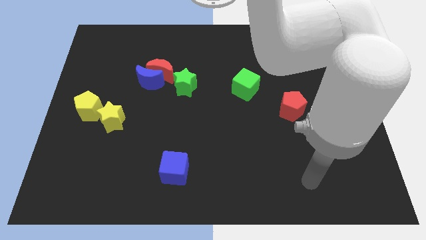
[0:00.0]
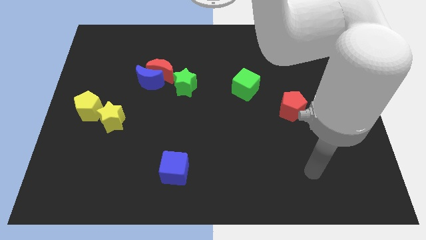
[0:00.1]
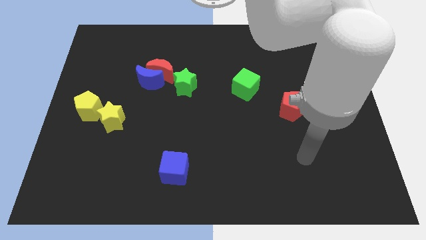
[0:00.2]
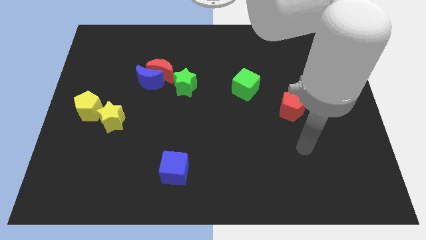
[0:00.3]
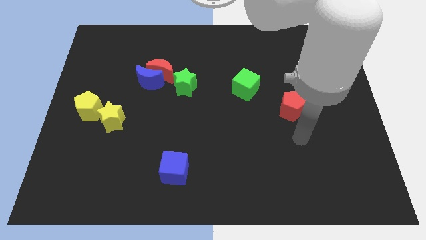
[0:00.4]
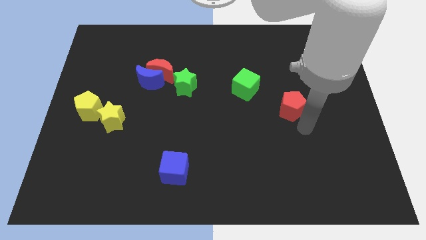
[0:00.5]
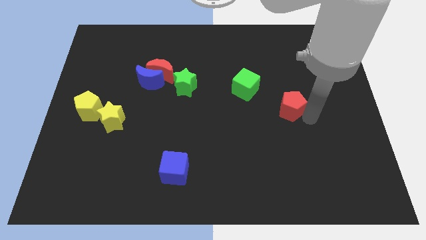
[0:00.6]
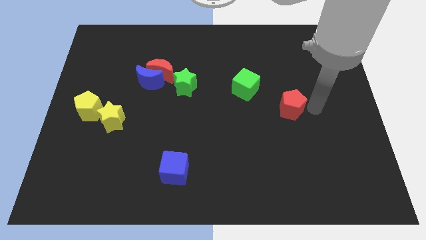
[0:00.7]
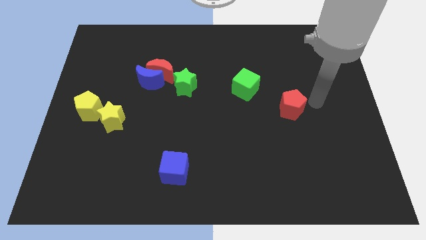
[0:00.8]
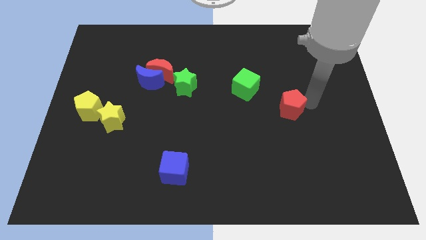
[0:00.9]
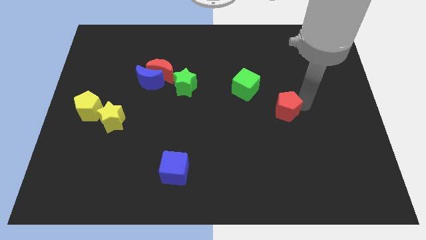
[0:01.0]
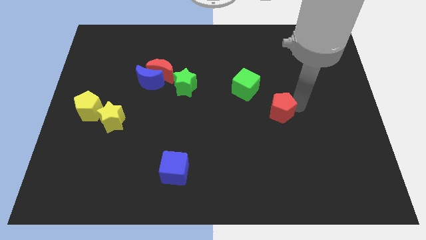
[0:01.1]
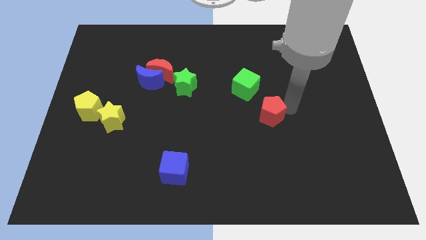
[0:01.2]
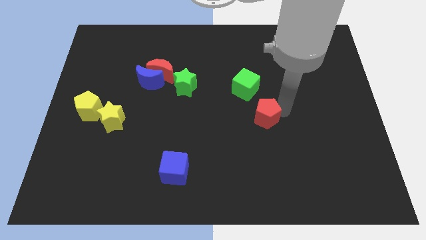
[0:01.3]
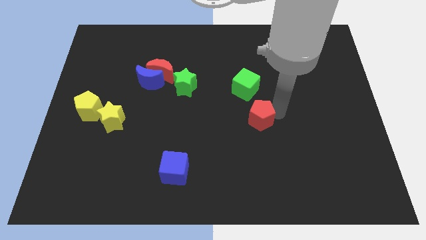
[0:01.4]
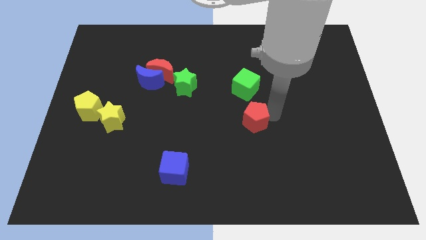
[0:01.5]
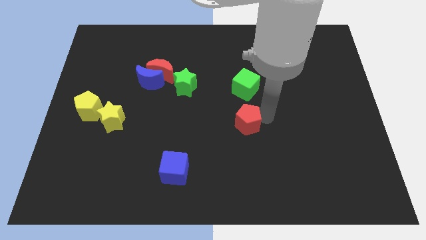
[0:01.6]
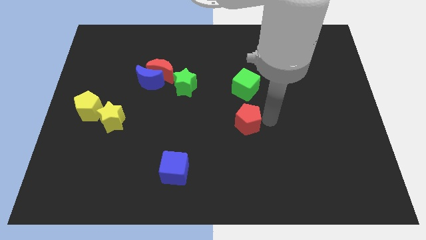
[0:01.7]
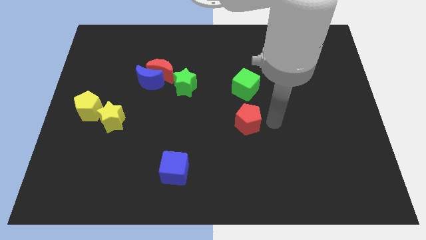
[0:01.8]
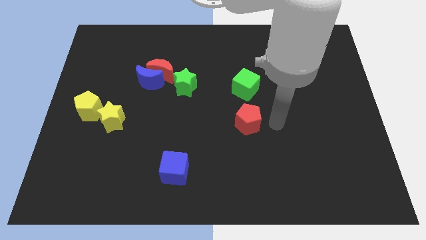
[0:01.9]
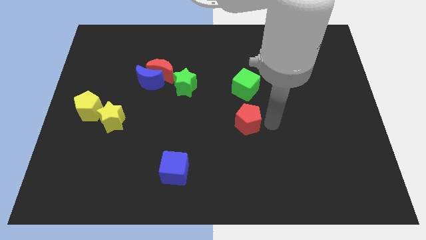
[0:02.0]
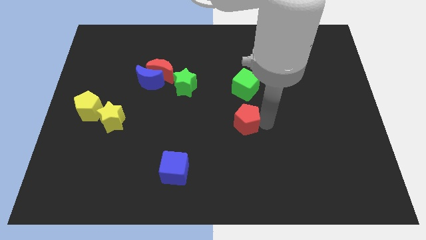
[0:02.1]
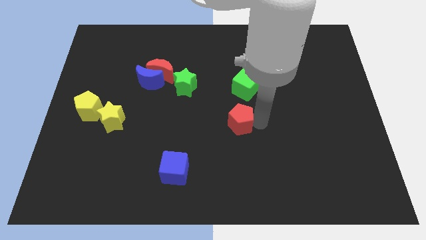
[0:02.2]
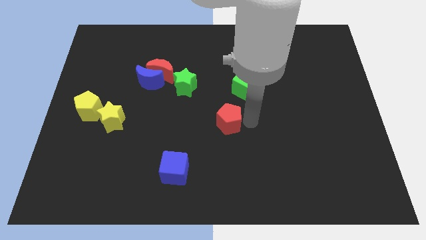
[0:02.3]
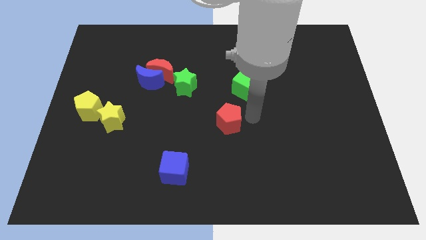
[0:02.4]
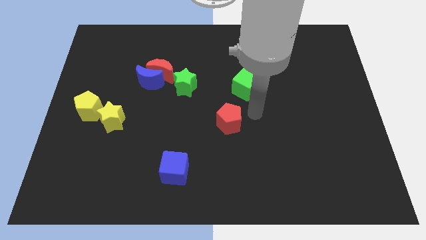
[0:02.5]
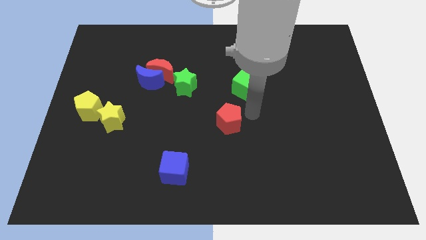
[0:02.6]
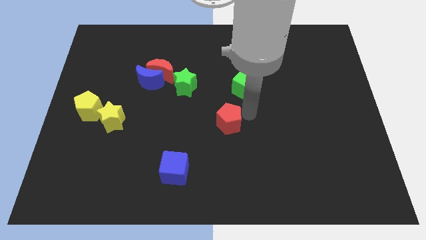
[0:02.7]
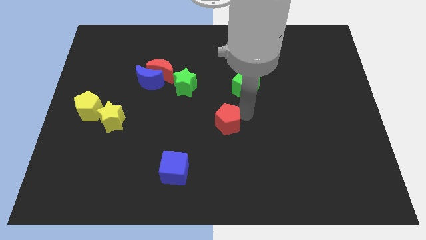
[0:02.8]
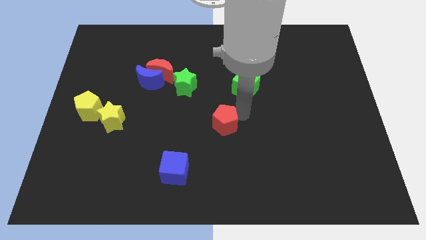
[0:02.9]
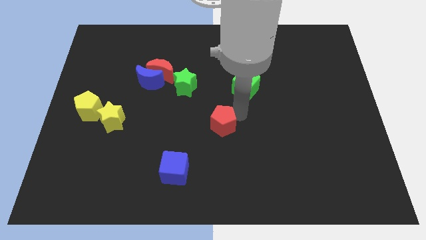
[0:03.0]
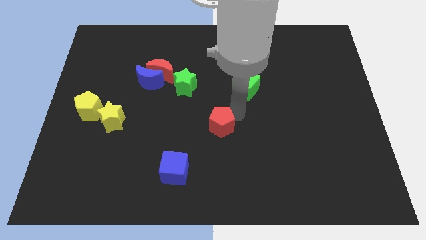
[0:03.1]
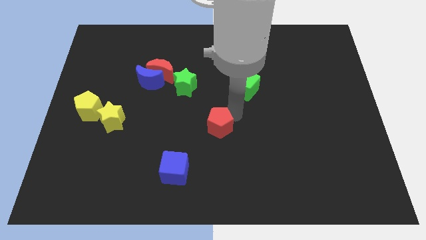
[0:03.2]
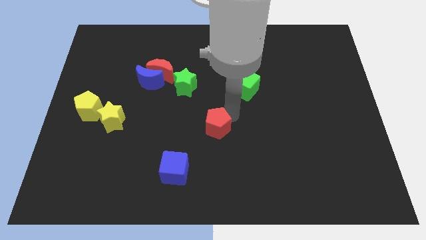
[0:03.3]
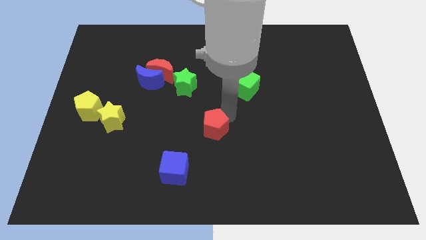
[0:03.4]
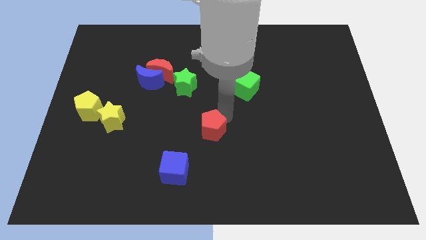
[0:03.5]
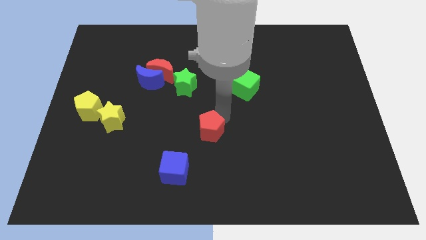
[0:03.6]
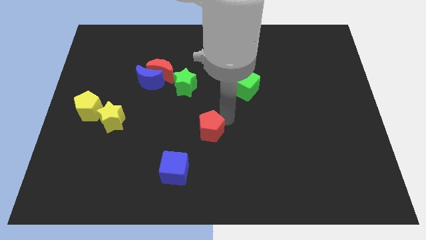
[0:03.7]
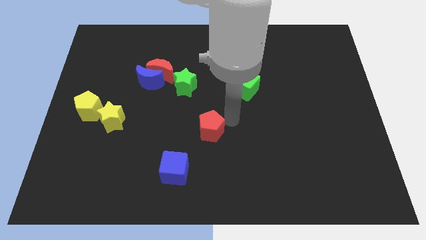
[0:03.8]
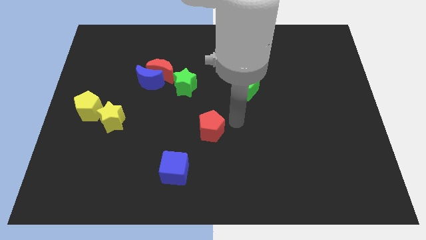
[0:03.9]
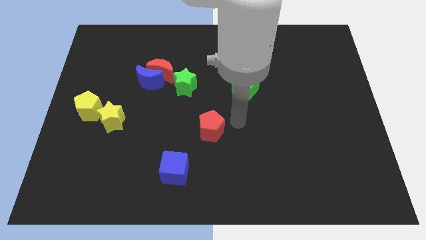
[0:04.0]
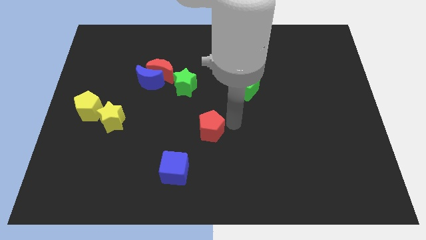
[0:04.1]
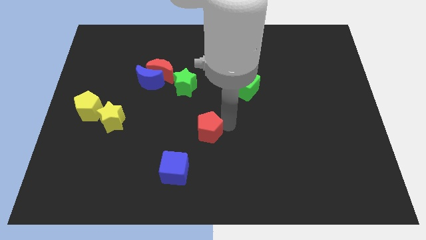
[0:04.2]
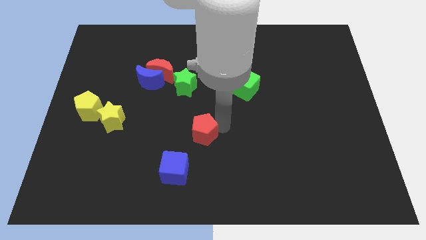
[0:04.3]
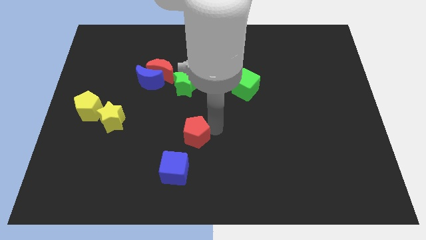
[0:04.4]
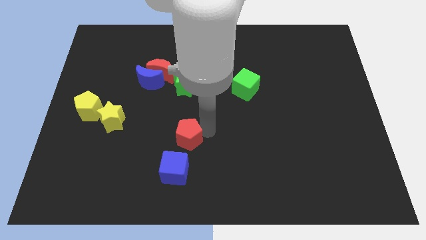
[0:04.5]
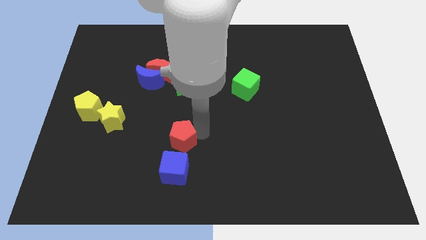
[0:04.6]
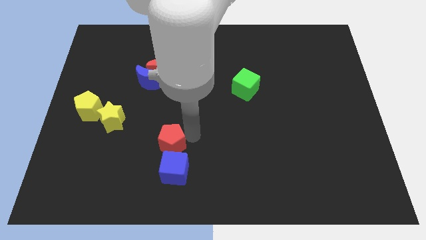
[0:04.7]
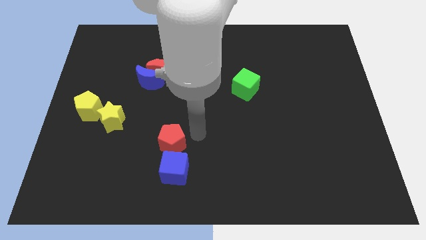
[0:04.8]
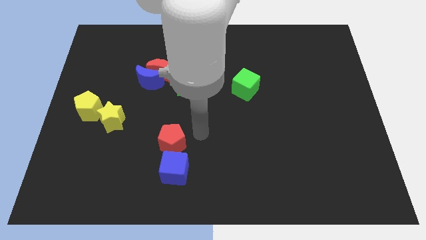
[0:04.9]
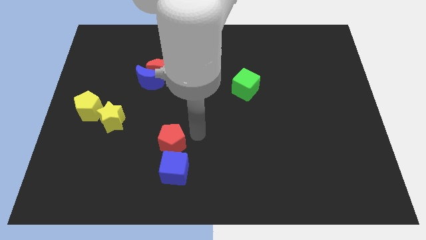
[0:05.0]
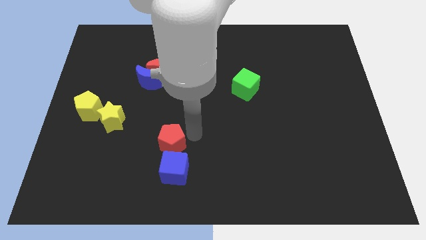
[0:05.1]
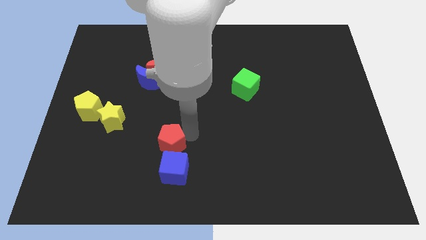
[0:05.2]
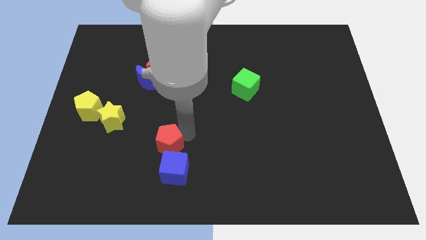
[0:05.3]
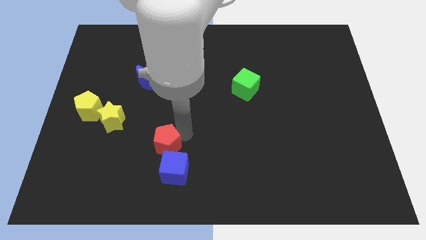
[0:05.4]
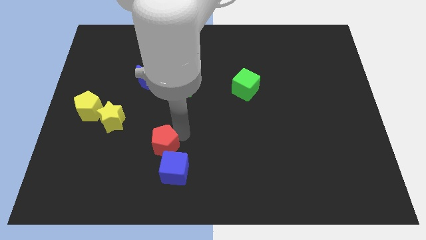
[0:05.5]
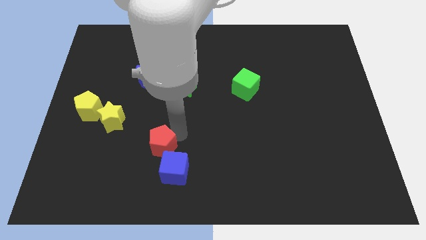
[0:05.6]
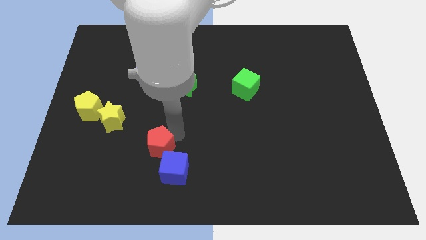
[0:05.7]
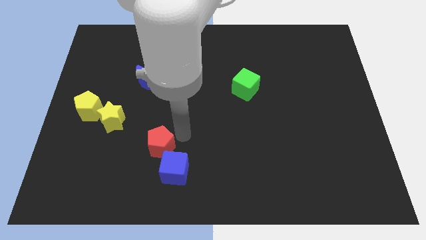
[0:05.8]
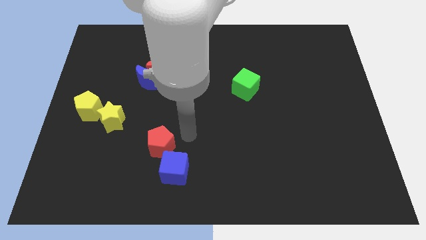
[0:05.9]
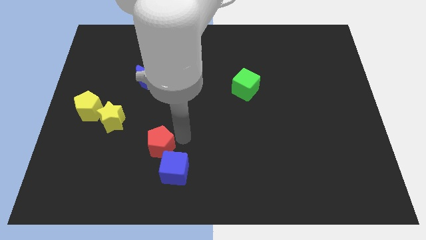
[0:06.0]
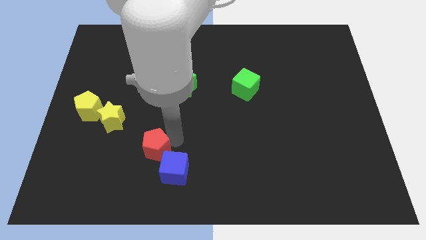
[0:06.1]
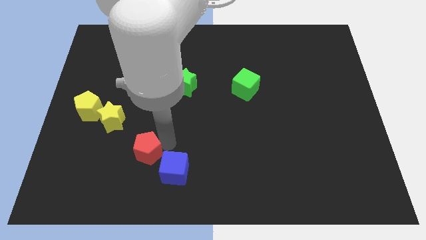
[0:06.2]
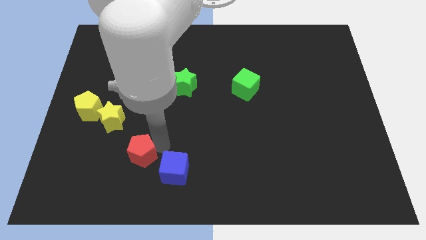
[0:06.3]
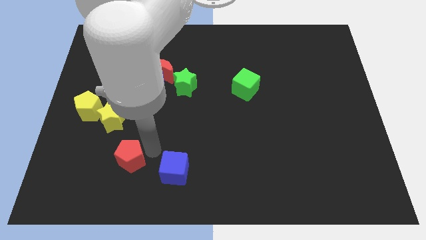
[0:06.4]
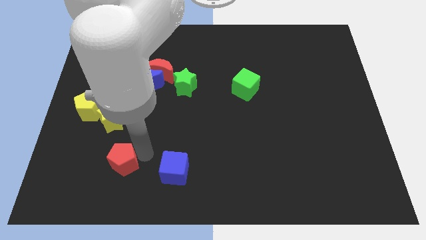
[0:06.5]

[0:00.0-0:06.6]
move the red pentagon to the bottom of the yellow star

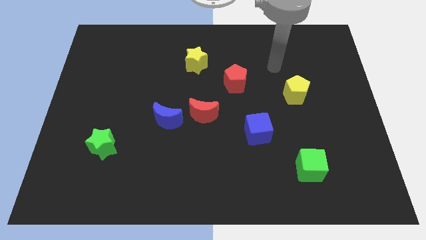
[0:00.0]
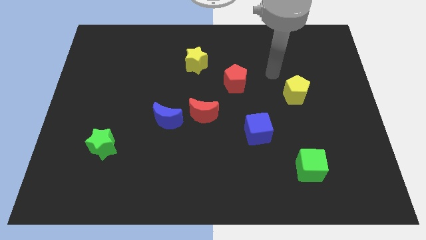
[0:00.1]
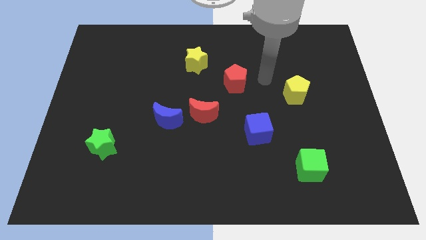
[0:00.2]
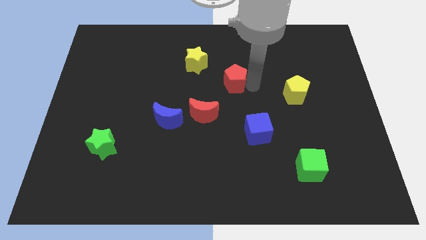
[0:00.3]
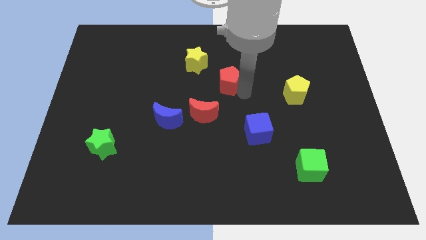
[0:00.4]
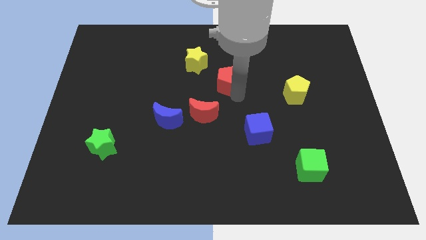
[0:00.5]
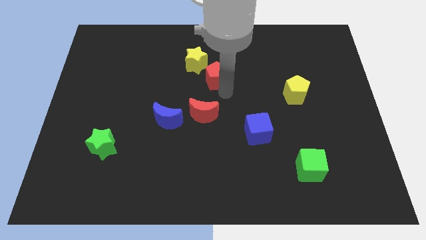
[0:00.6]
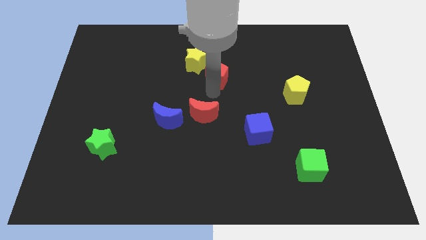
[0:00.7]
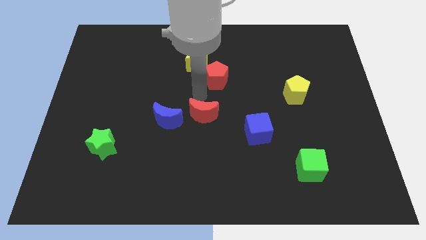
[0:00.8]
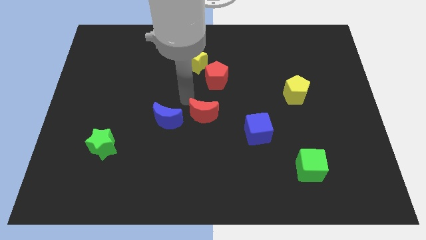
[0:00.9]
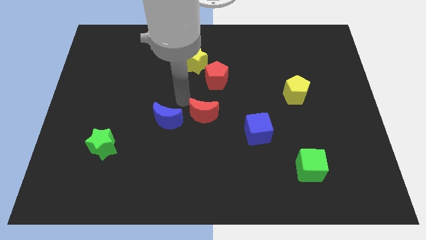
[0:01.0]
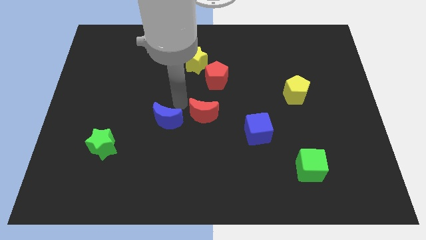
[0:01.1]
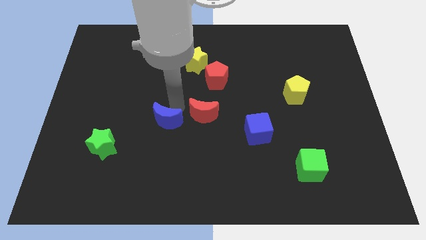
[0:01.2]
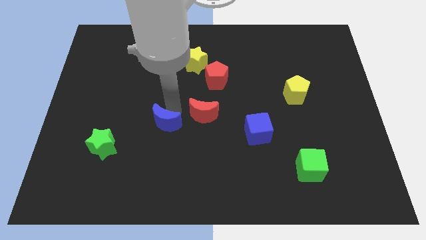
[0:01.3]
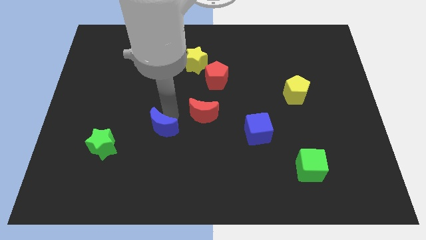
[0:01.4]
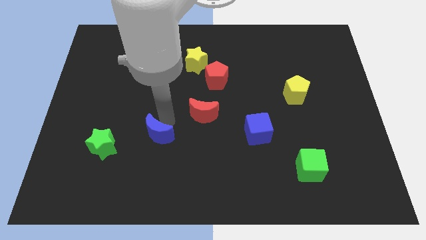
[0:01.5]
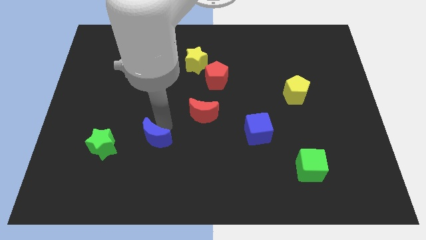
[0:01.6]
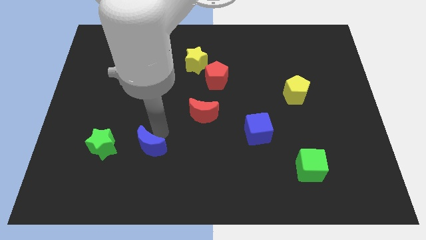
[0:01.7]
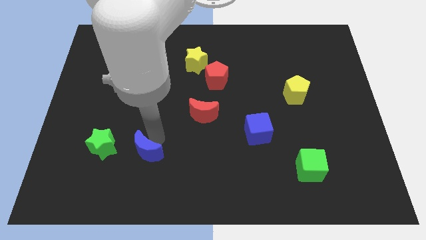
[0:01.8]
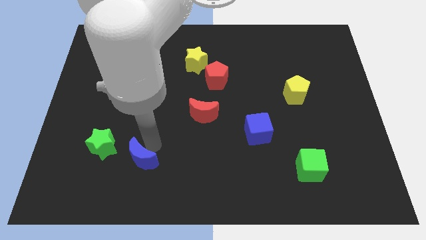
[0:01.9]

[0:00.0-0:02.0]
slide the blue moon diagonally down and to the right of the green star
